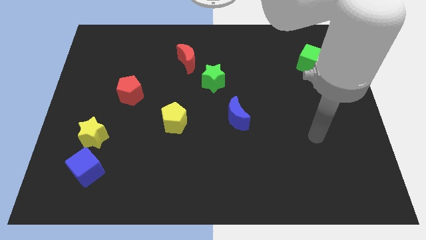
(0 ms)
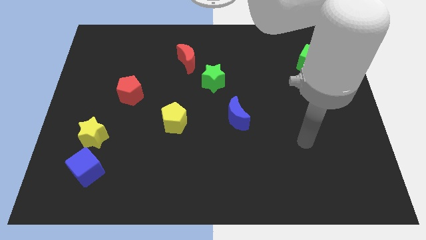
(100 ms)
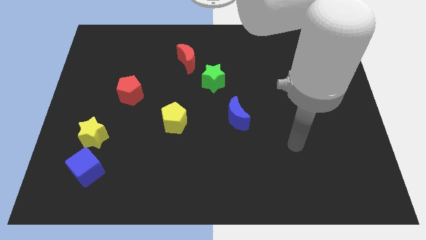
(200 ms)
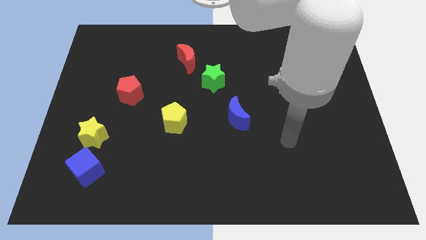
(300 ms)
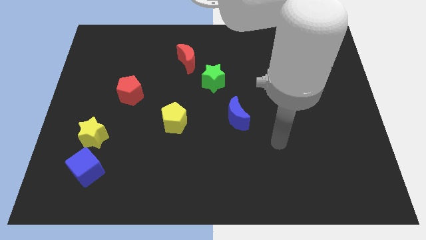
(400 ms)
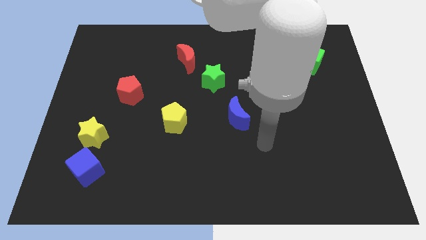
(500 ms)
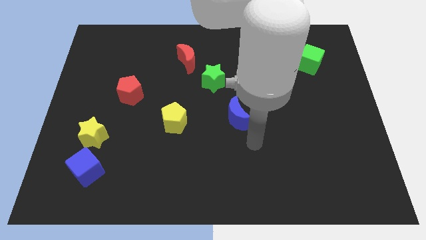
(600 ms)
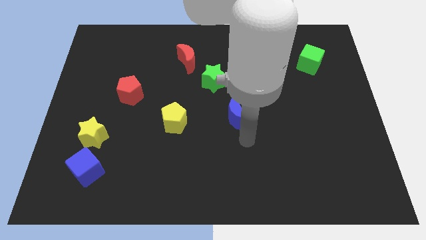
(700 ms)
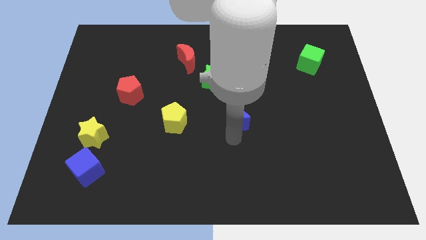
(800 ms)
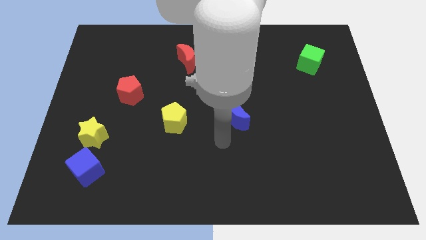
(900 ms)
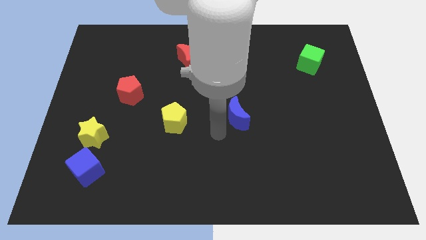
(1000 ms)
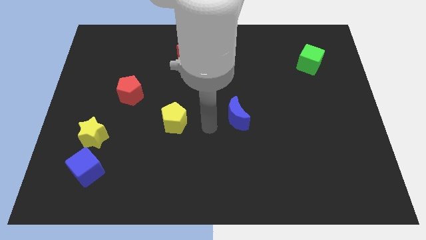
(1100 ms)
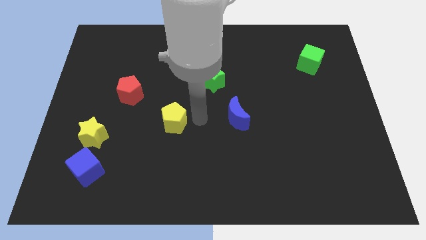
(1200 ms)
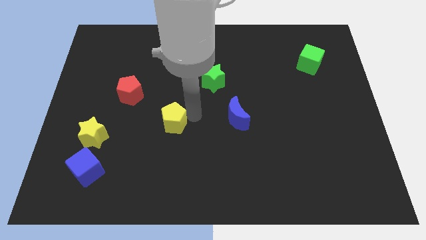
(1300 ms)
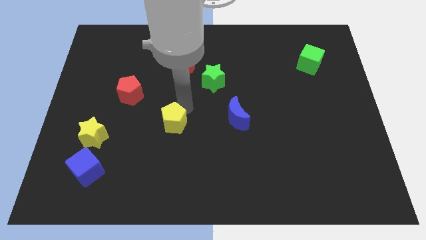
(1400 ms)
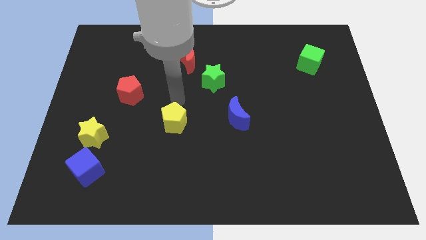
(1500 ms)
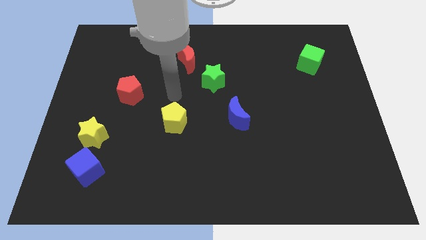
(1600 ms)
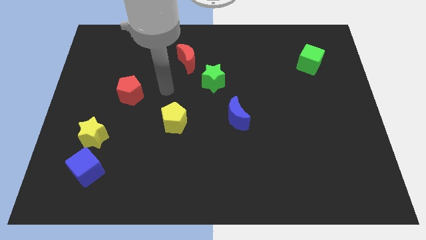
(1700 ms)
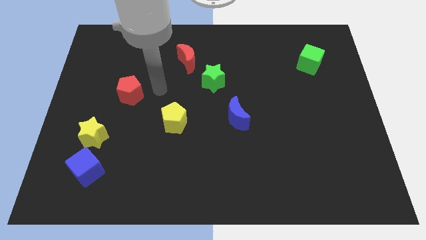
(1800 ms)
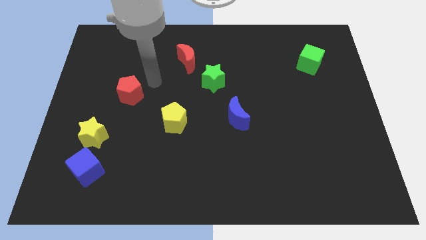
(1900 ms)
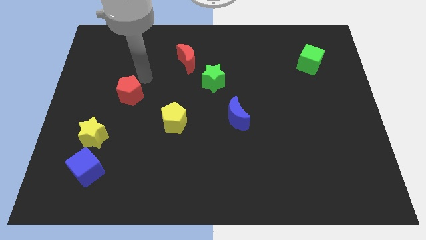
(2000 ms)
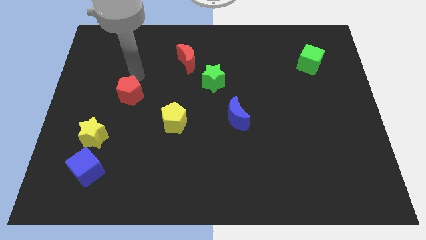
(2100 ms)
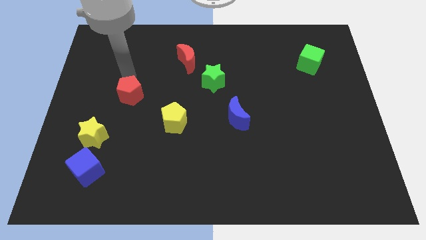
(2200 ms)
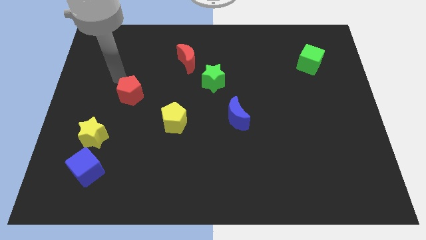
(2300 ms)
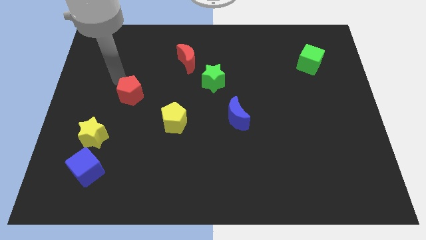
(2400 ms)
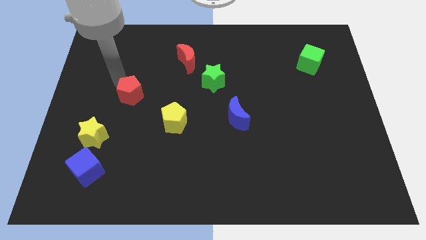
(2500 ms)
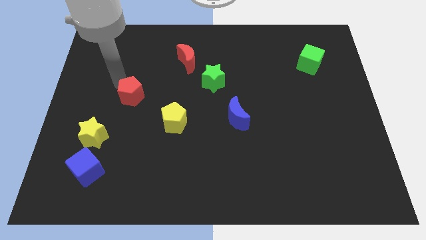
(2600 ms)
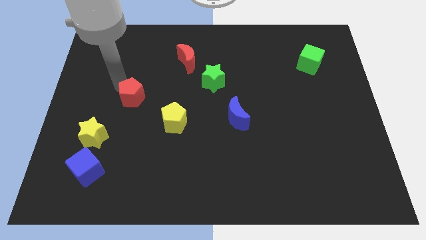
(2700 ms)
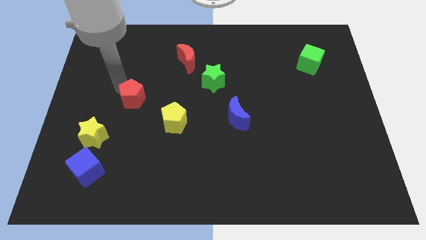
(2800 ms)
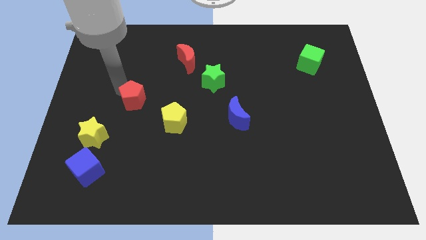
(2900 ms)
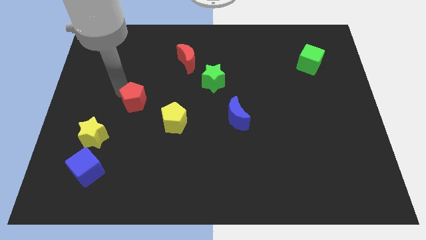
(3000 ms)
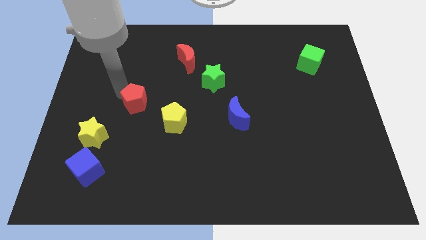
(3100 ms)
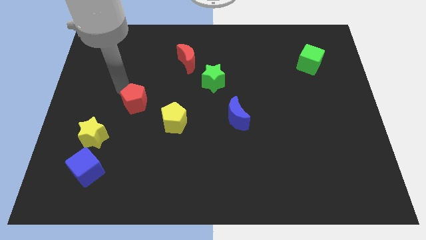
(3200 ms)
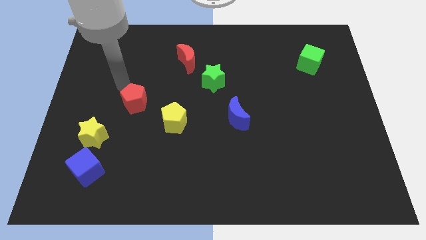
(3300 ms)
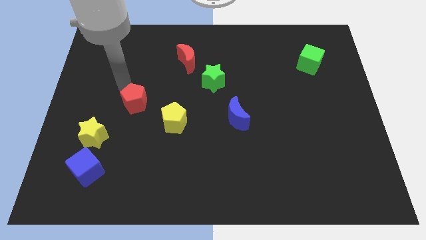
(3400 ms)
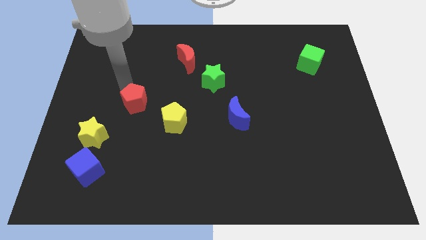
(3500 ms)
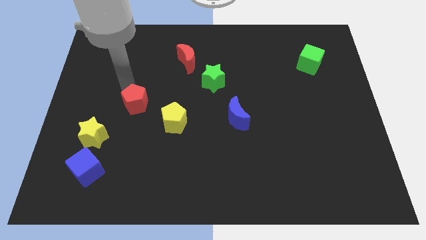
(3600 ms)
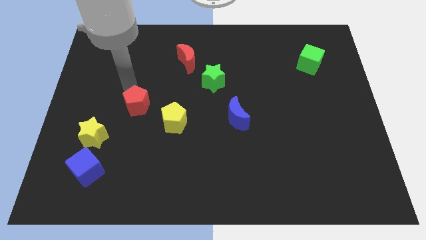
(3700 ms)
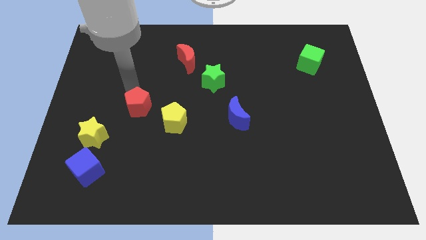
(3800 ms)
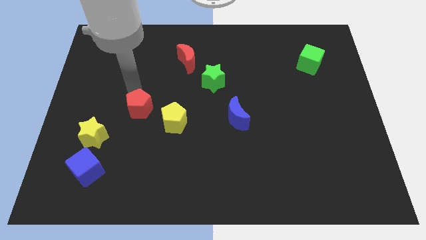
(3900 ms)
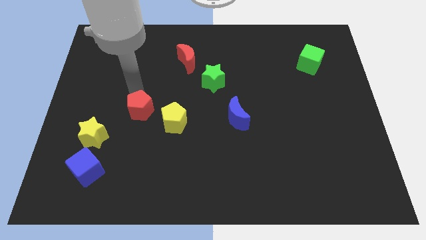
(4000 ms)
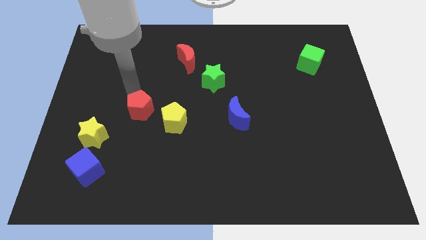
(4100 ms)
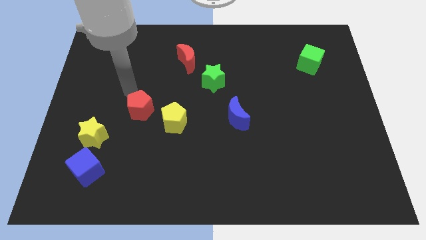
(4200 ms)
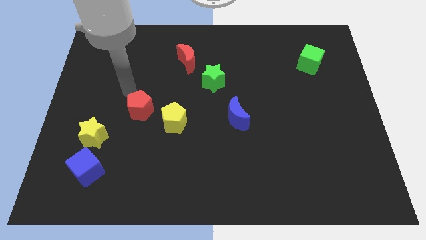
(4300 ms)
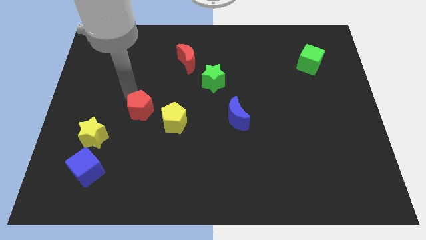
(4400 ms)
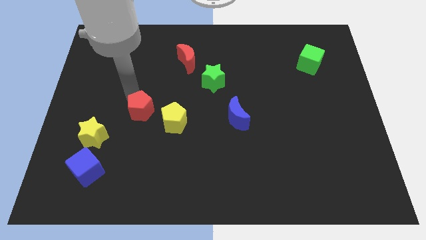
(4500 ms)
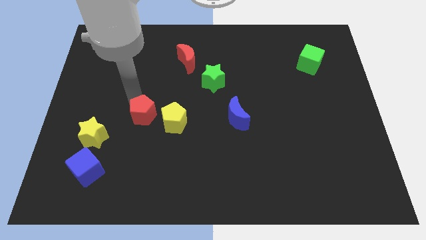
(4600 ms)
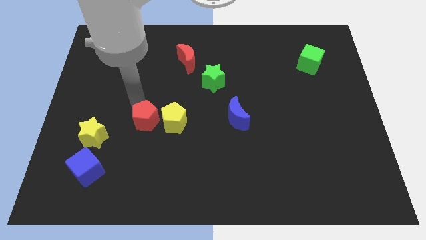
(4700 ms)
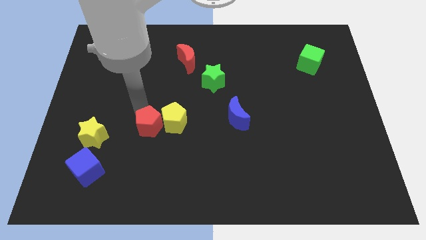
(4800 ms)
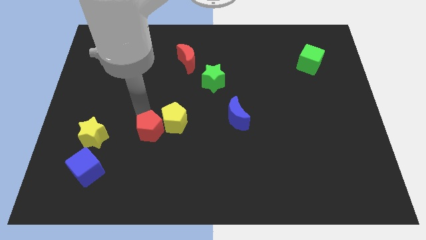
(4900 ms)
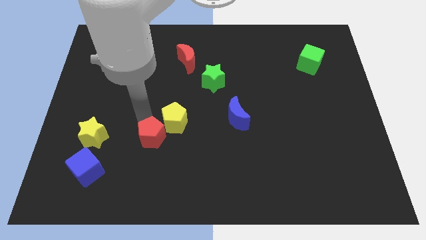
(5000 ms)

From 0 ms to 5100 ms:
slide the red pentagon to the bottom of the yellow pentagon

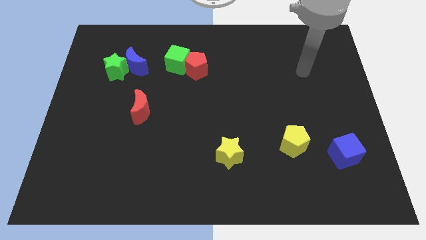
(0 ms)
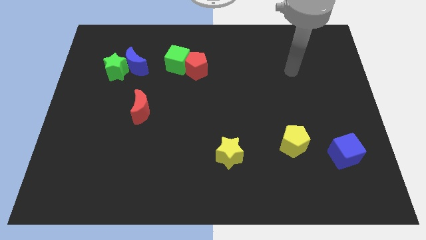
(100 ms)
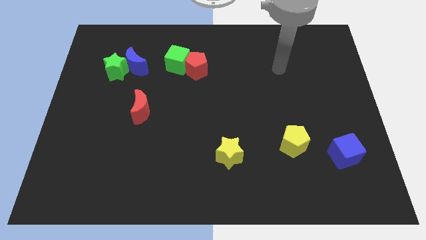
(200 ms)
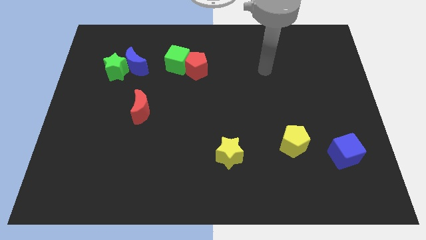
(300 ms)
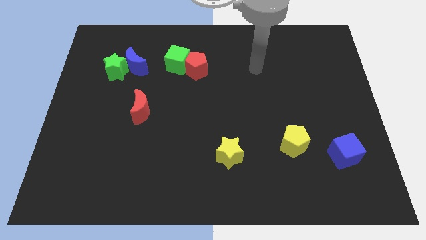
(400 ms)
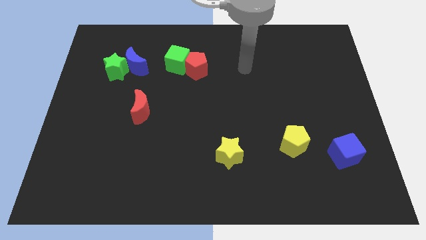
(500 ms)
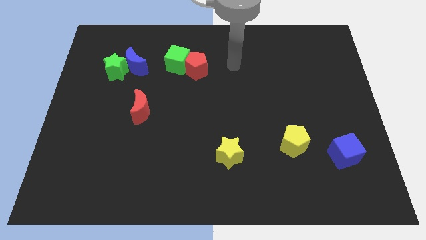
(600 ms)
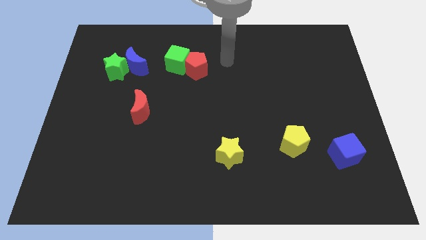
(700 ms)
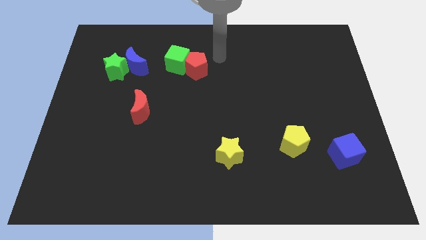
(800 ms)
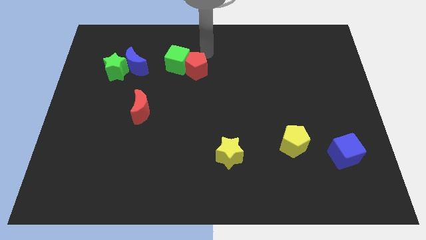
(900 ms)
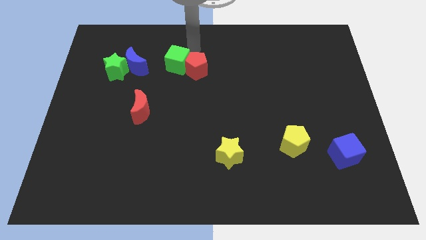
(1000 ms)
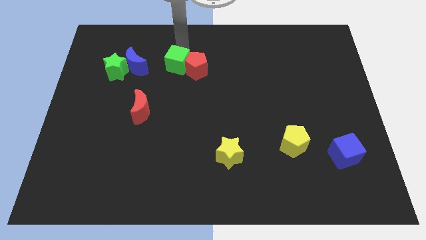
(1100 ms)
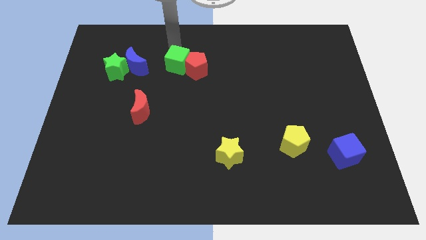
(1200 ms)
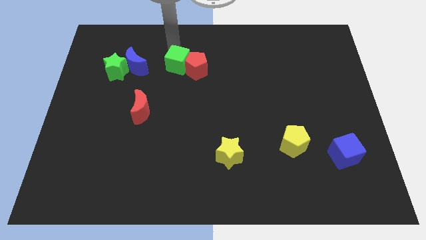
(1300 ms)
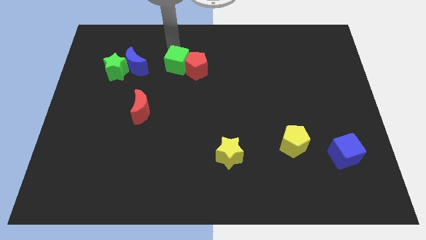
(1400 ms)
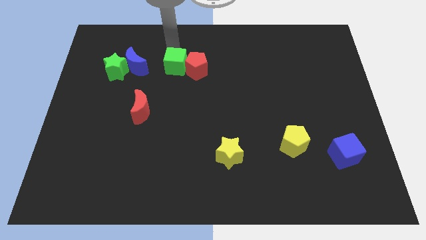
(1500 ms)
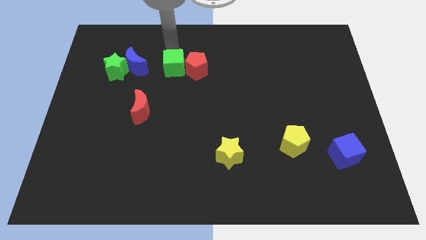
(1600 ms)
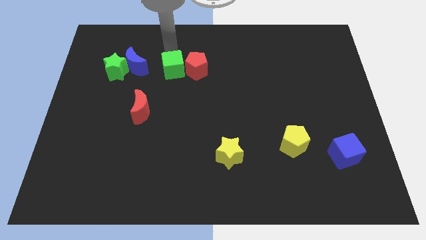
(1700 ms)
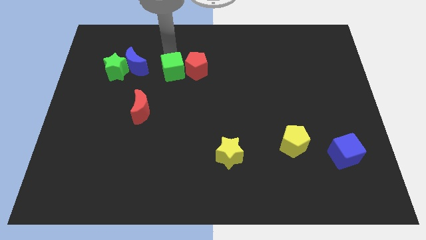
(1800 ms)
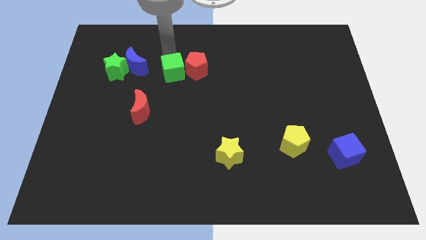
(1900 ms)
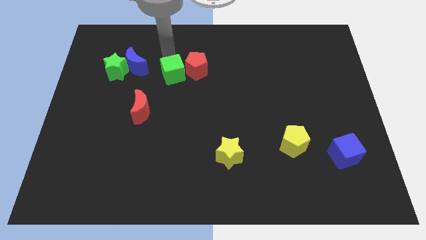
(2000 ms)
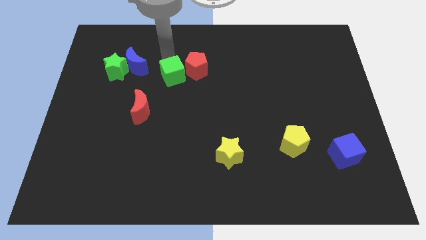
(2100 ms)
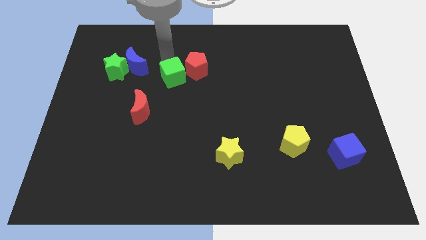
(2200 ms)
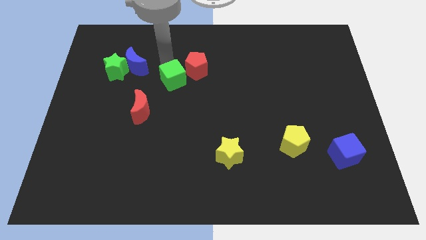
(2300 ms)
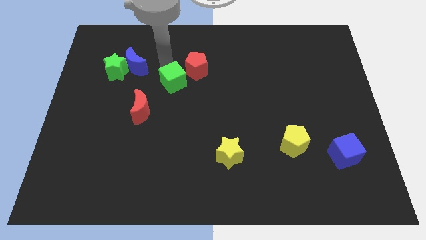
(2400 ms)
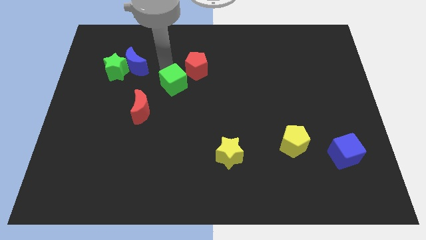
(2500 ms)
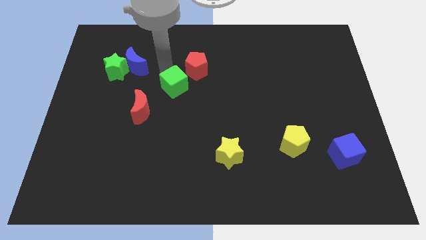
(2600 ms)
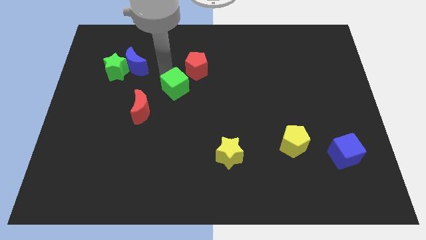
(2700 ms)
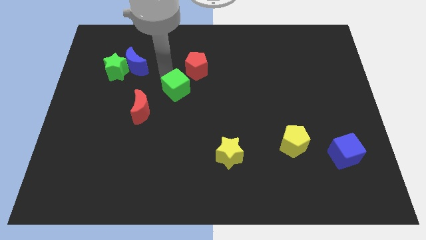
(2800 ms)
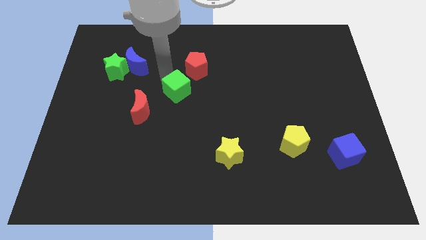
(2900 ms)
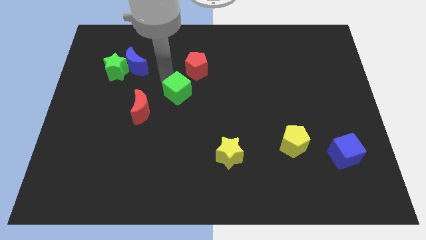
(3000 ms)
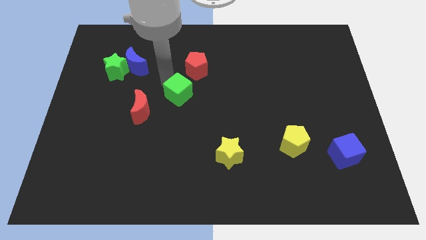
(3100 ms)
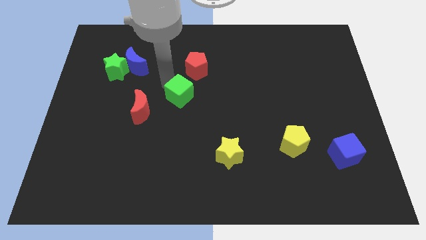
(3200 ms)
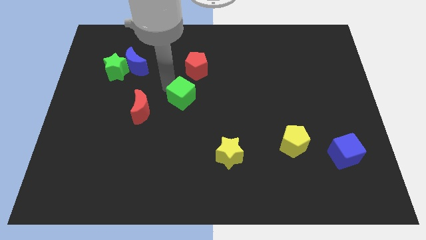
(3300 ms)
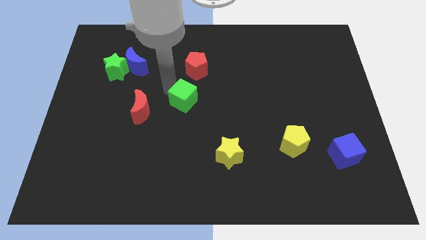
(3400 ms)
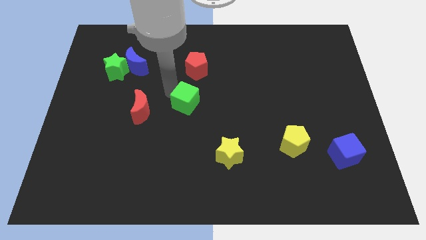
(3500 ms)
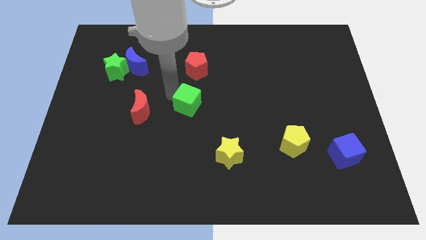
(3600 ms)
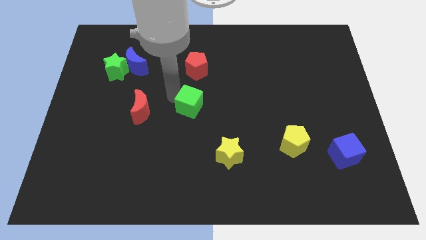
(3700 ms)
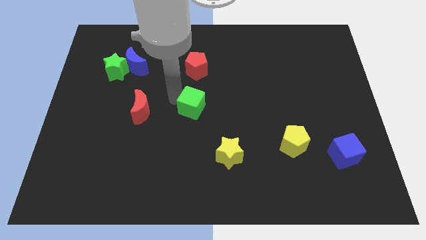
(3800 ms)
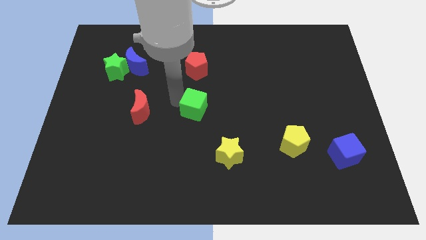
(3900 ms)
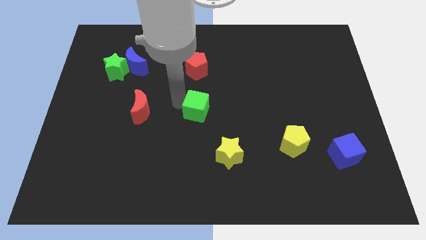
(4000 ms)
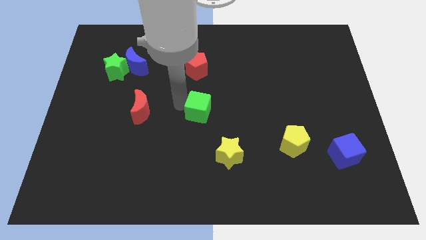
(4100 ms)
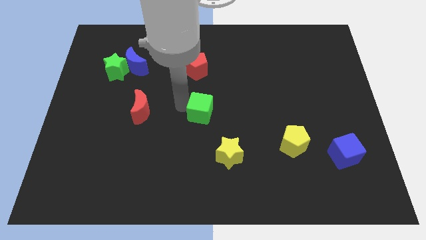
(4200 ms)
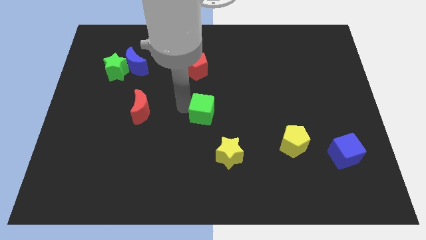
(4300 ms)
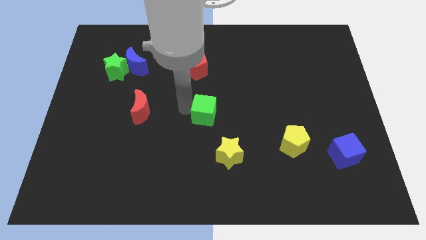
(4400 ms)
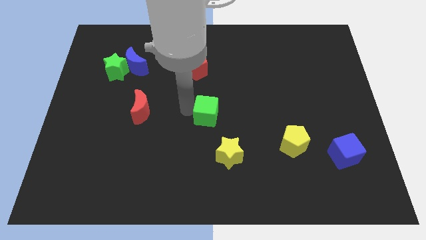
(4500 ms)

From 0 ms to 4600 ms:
put the green cube above the yellow star
